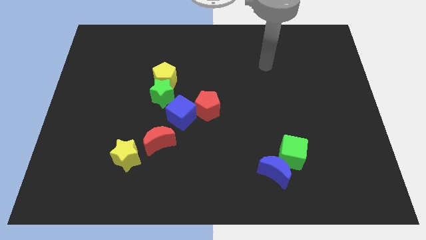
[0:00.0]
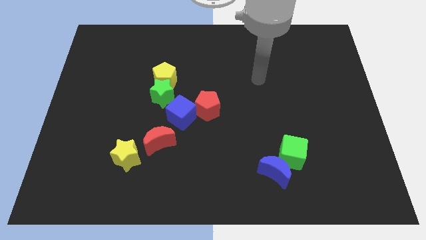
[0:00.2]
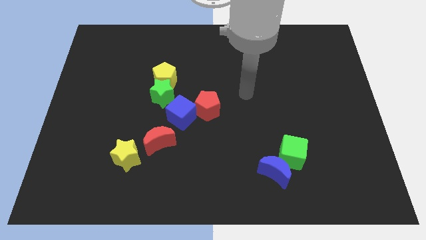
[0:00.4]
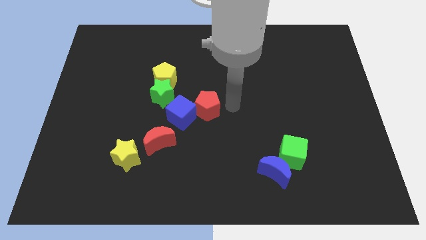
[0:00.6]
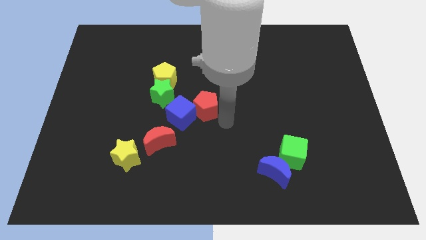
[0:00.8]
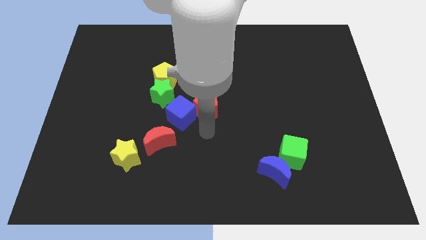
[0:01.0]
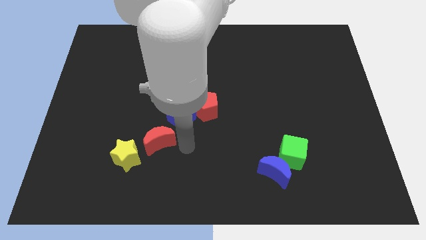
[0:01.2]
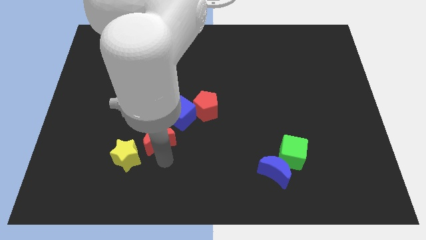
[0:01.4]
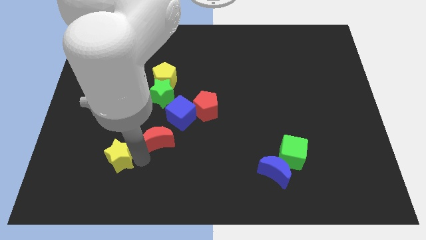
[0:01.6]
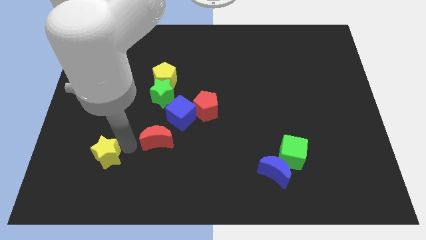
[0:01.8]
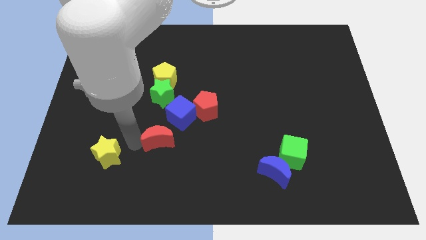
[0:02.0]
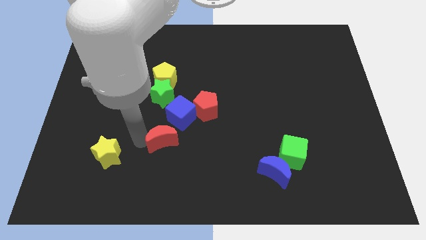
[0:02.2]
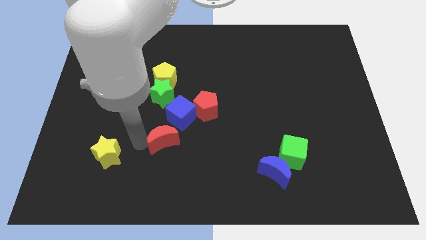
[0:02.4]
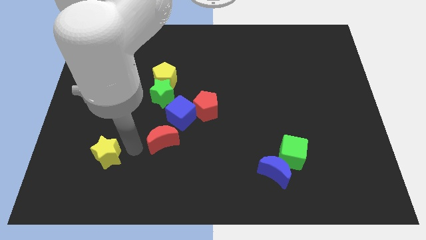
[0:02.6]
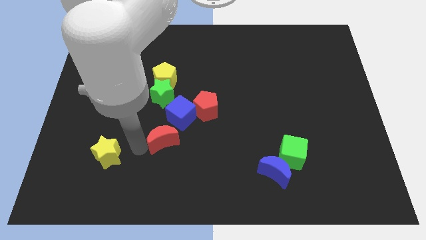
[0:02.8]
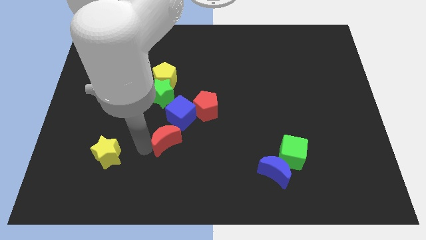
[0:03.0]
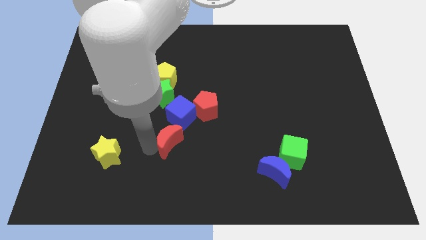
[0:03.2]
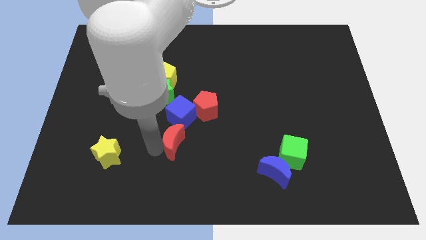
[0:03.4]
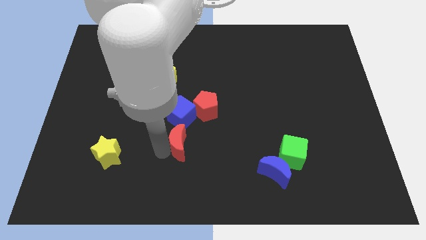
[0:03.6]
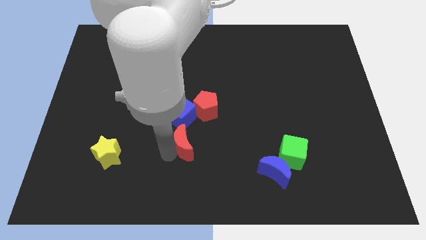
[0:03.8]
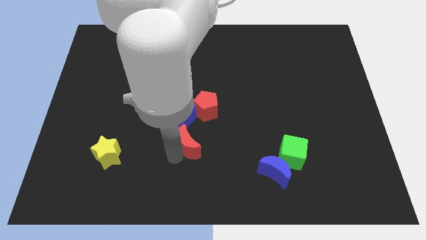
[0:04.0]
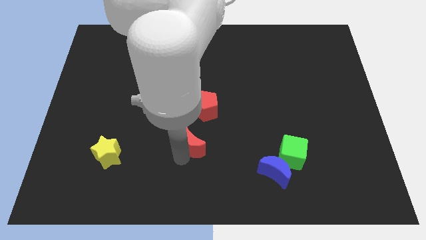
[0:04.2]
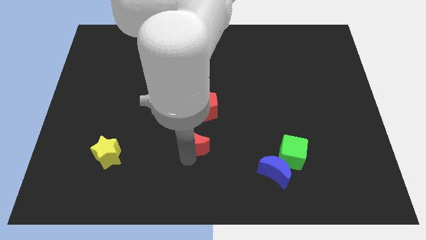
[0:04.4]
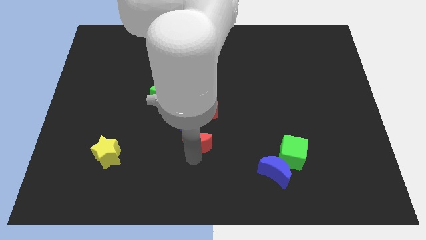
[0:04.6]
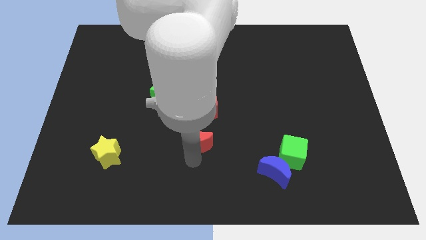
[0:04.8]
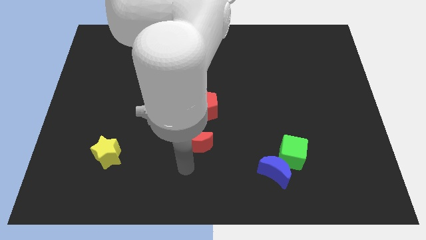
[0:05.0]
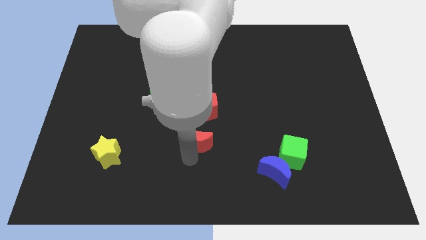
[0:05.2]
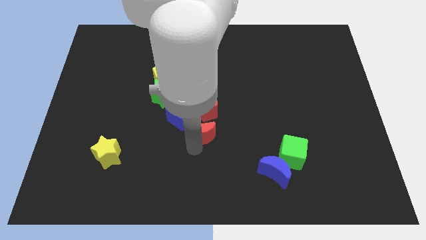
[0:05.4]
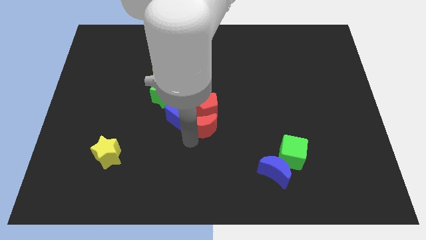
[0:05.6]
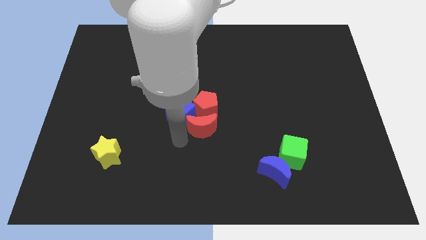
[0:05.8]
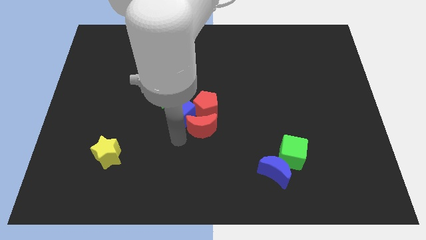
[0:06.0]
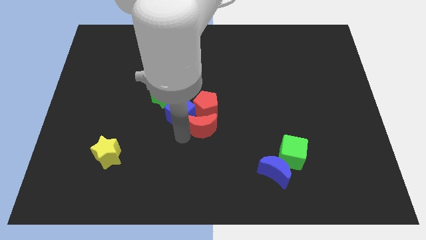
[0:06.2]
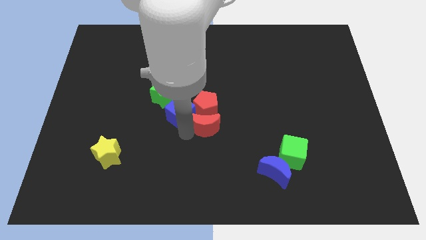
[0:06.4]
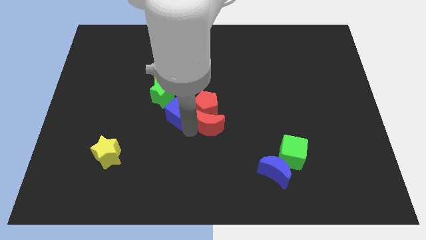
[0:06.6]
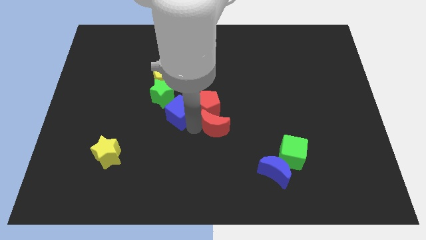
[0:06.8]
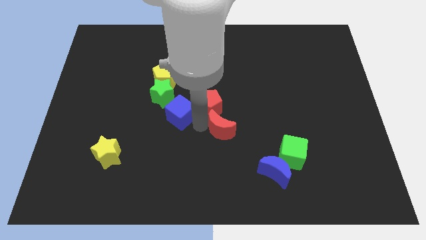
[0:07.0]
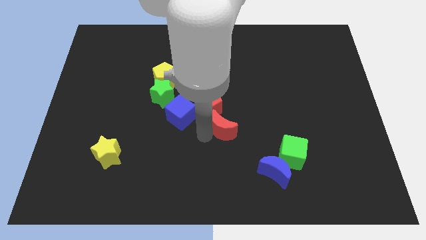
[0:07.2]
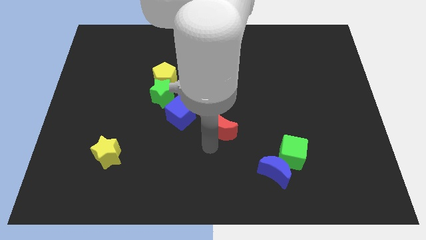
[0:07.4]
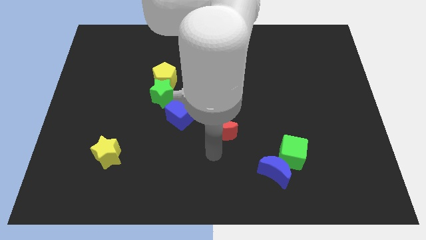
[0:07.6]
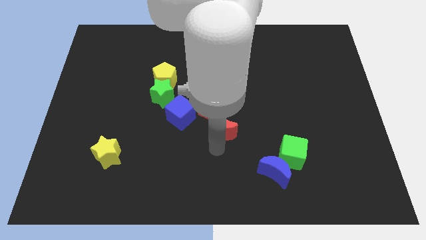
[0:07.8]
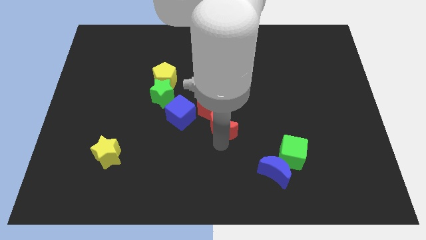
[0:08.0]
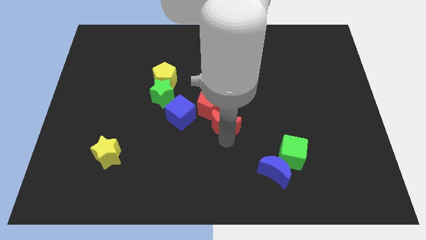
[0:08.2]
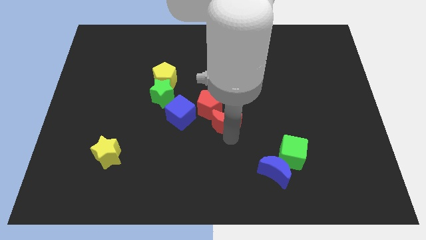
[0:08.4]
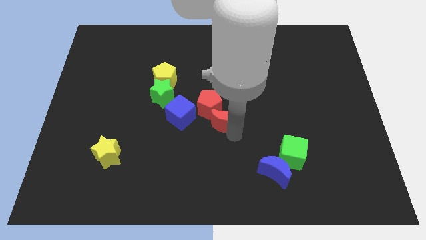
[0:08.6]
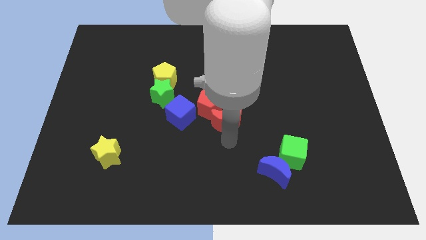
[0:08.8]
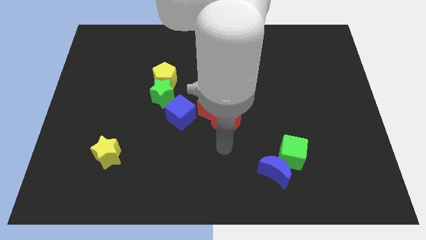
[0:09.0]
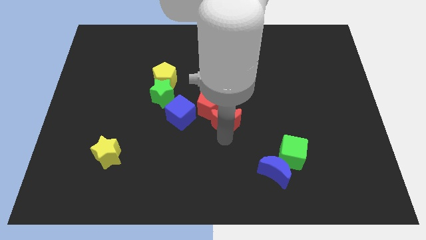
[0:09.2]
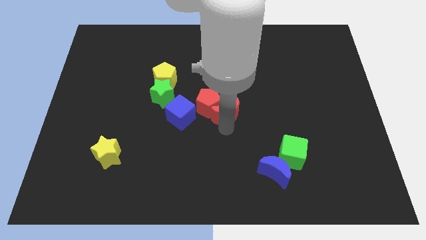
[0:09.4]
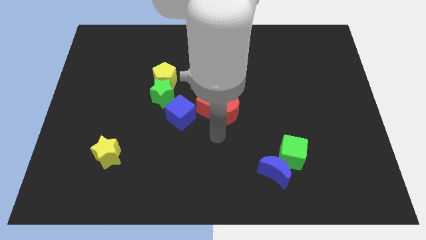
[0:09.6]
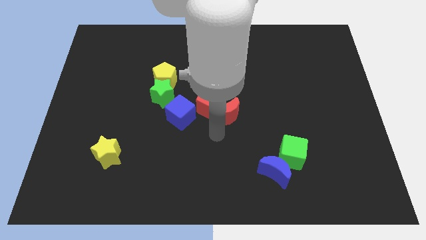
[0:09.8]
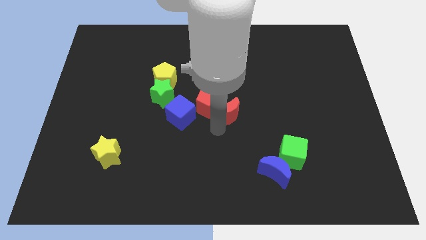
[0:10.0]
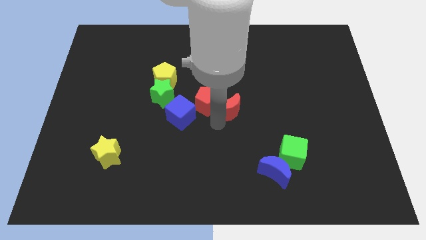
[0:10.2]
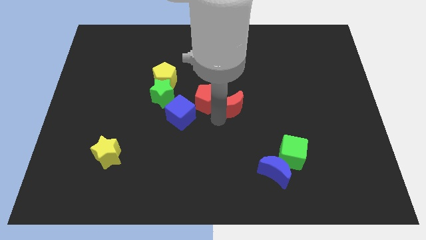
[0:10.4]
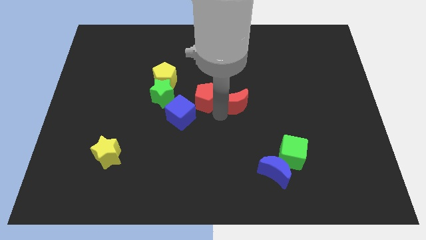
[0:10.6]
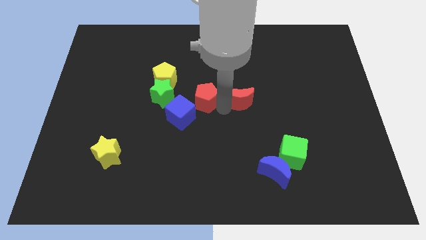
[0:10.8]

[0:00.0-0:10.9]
move the red moon up and to the right

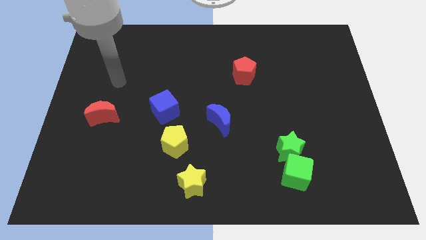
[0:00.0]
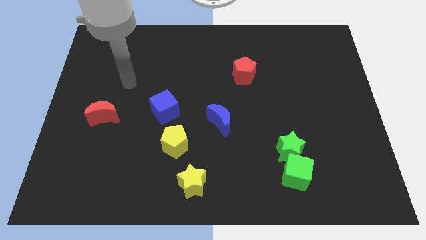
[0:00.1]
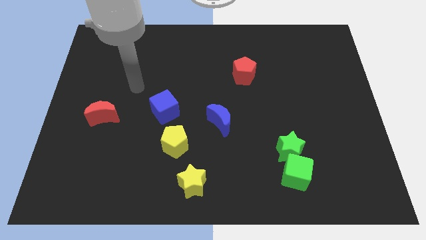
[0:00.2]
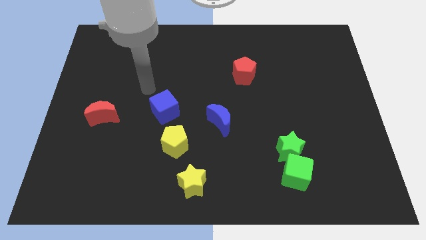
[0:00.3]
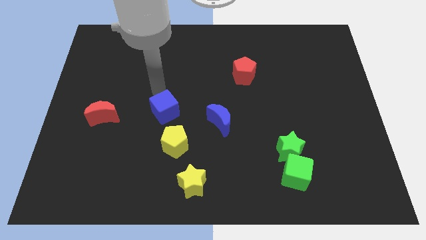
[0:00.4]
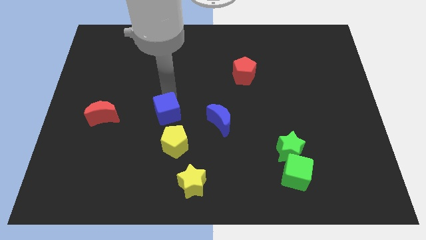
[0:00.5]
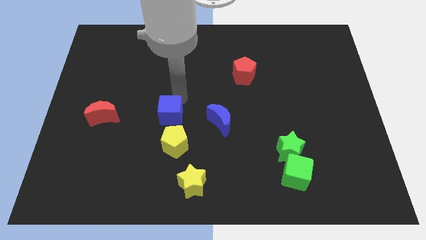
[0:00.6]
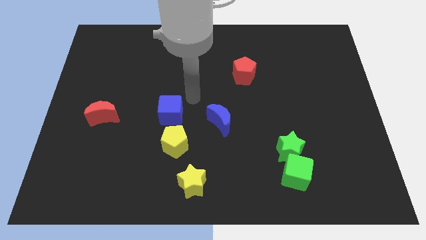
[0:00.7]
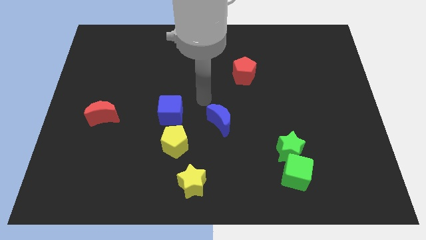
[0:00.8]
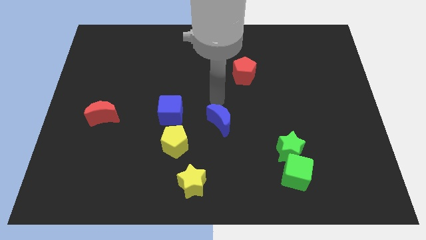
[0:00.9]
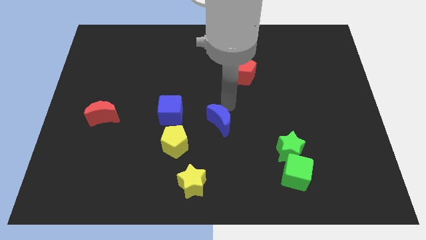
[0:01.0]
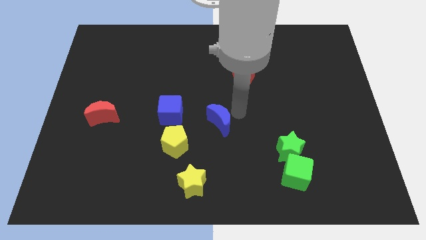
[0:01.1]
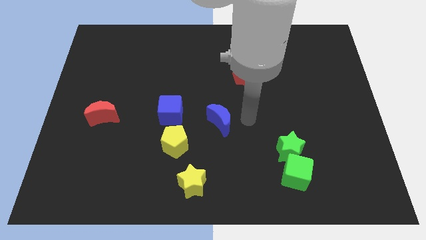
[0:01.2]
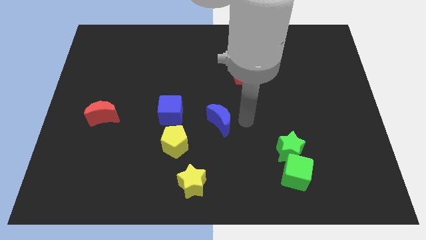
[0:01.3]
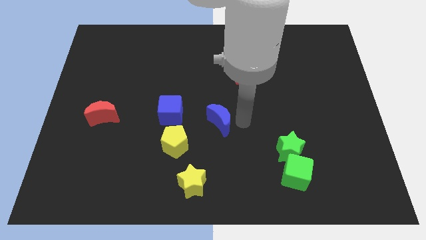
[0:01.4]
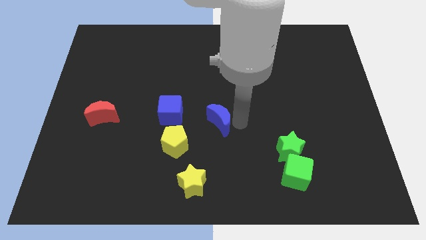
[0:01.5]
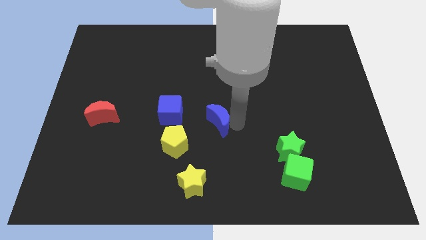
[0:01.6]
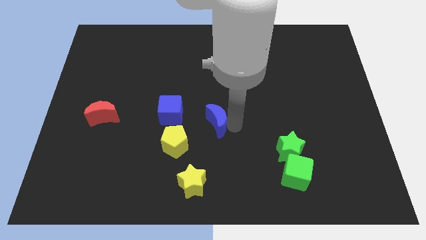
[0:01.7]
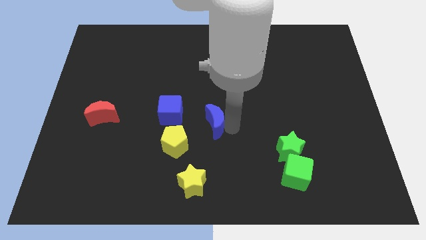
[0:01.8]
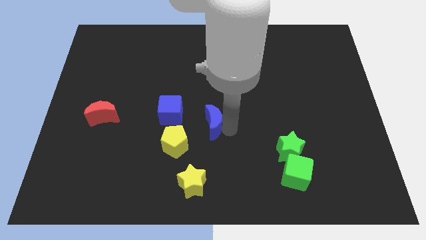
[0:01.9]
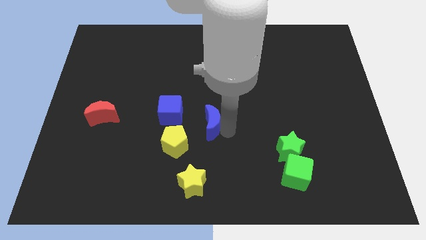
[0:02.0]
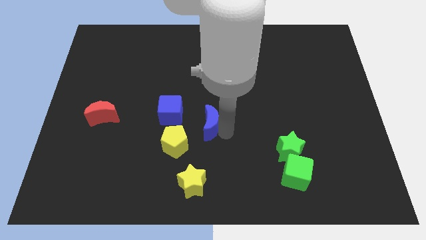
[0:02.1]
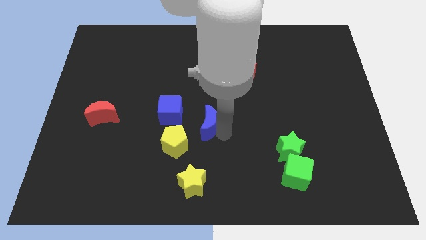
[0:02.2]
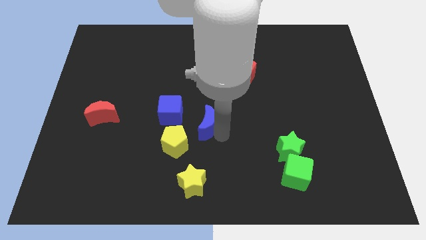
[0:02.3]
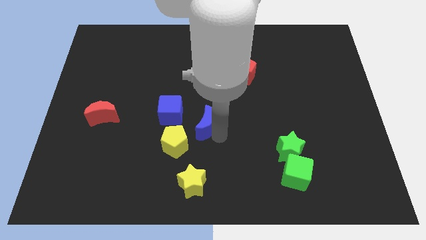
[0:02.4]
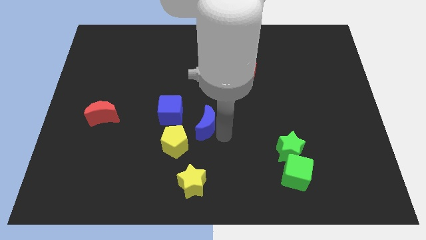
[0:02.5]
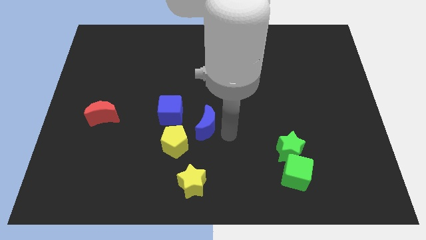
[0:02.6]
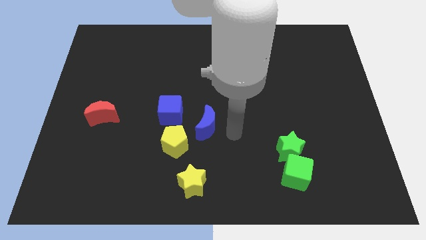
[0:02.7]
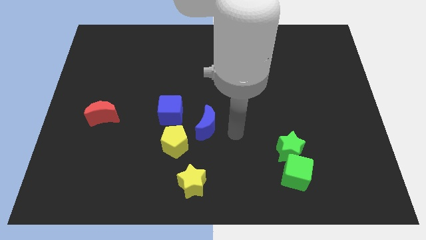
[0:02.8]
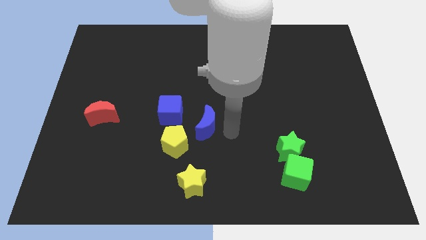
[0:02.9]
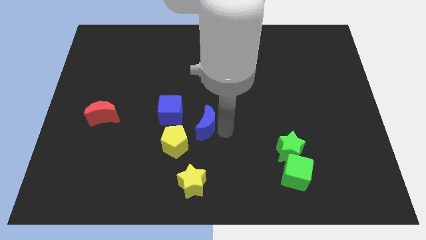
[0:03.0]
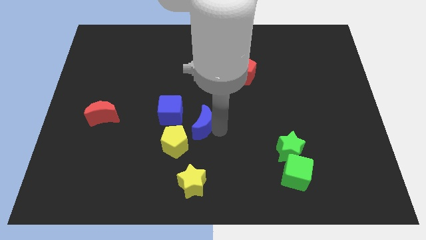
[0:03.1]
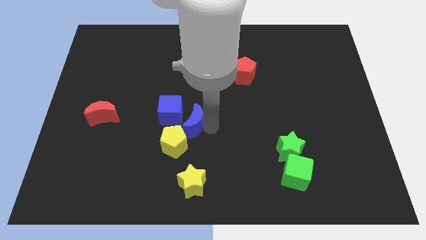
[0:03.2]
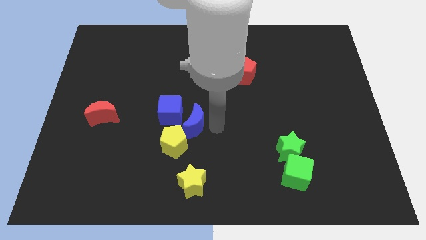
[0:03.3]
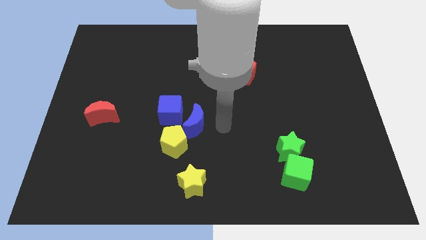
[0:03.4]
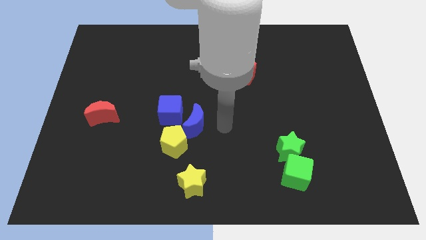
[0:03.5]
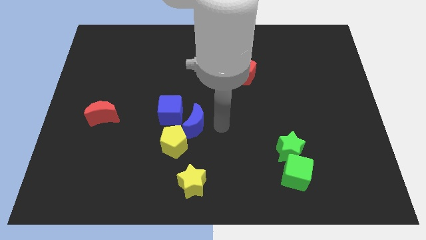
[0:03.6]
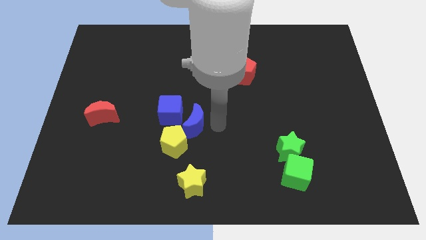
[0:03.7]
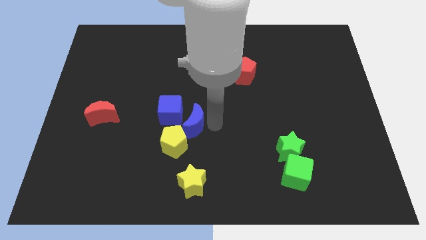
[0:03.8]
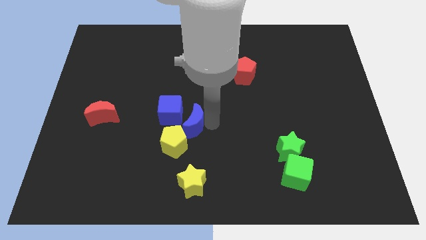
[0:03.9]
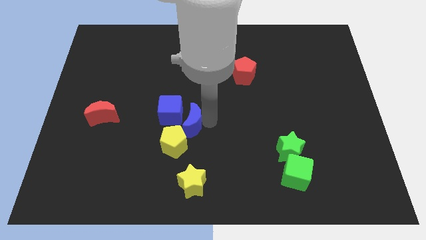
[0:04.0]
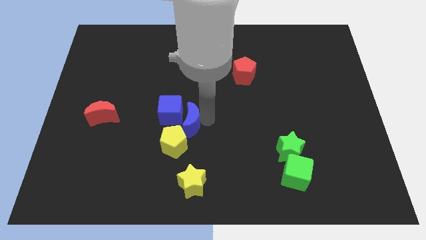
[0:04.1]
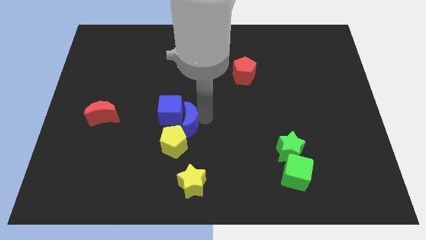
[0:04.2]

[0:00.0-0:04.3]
slightly push the blue moon left
